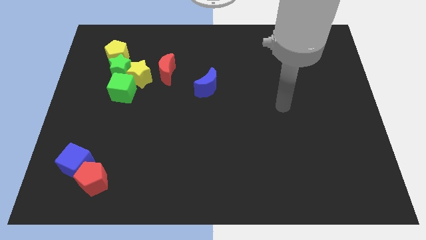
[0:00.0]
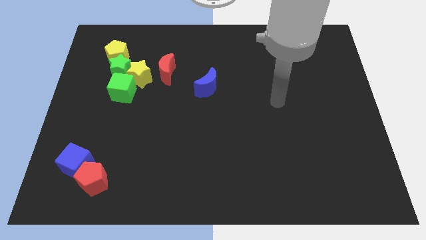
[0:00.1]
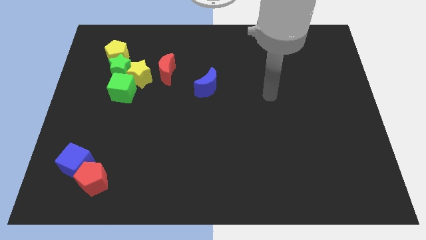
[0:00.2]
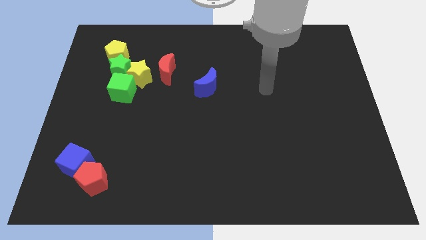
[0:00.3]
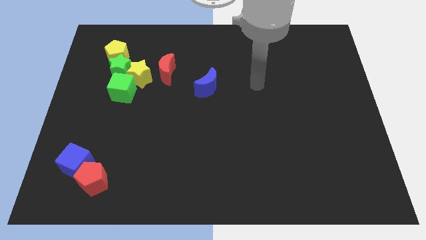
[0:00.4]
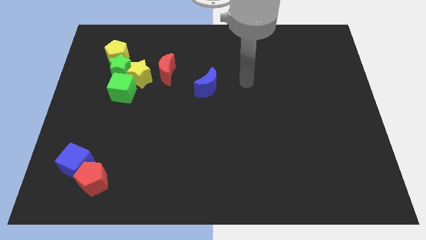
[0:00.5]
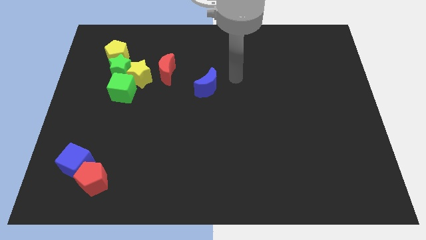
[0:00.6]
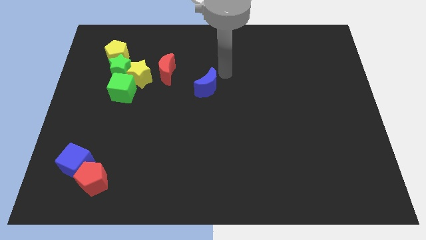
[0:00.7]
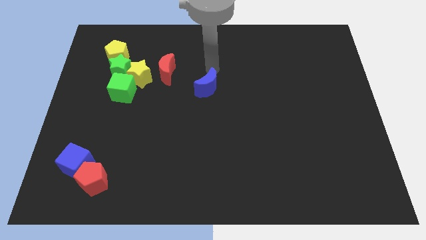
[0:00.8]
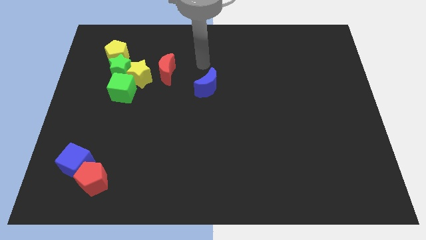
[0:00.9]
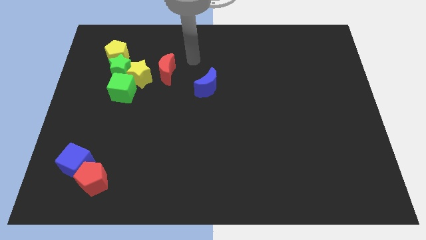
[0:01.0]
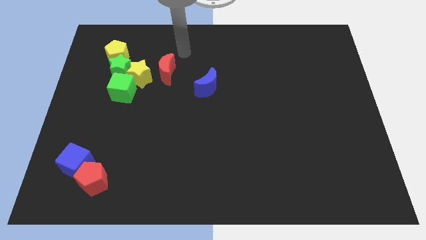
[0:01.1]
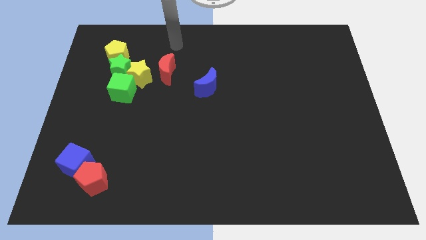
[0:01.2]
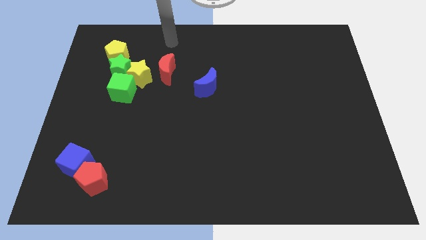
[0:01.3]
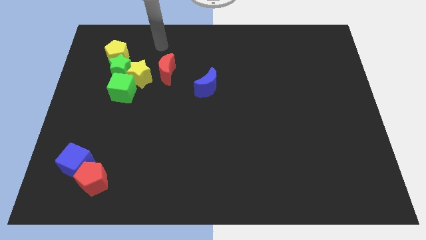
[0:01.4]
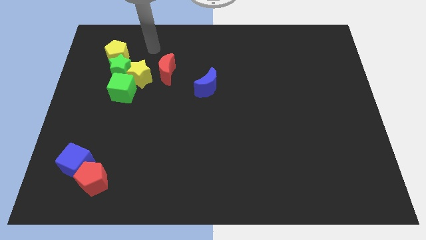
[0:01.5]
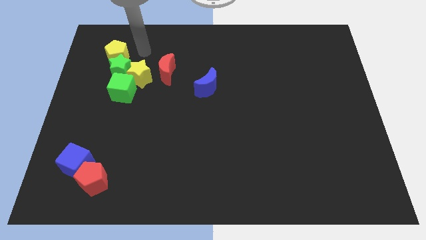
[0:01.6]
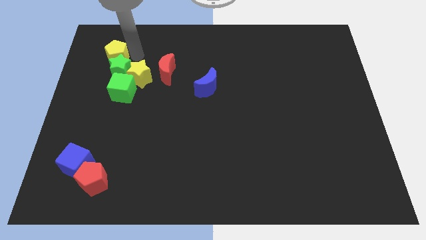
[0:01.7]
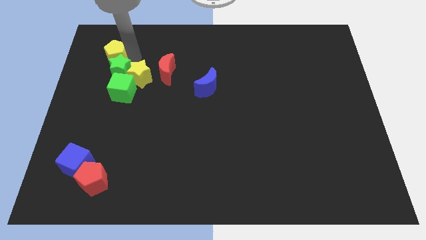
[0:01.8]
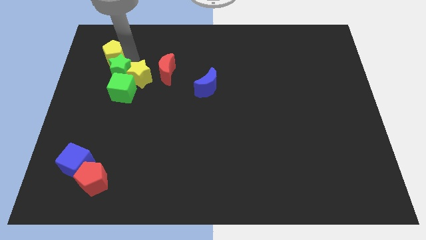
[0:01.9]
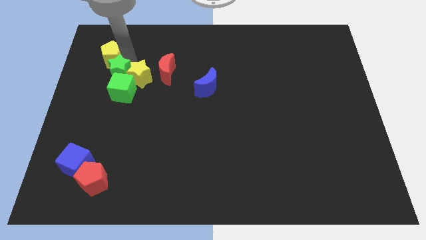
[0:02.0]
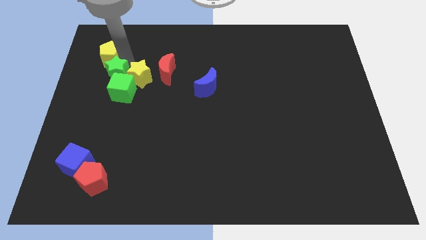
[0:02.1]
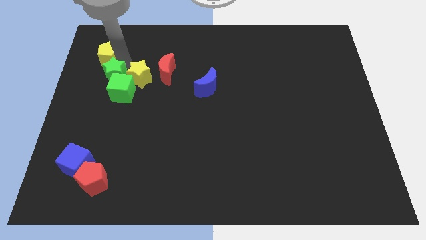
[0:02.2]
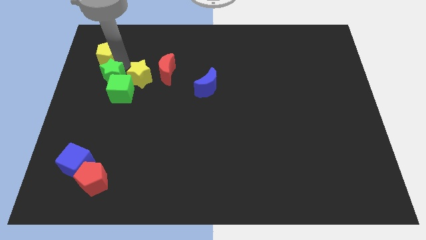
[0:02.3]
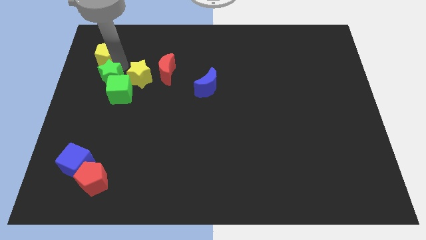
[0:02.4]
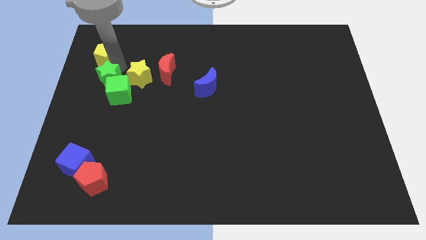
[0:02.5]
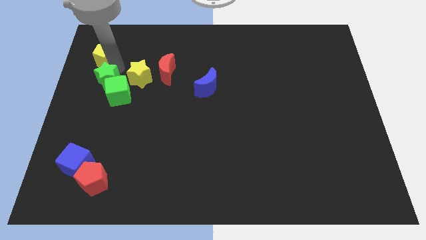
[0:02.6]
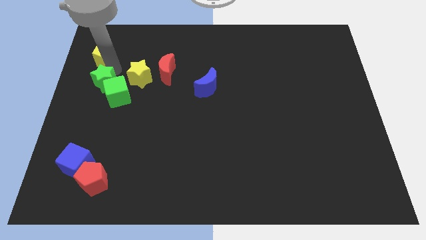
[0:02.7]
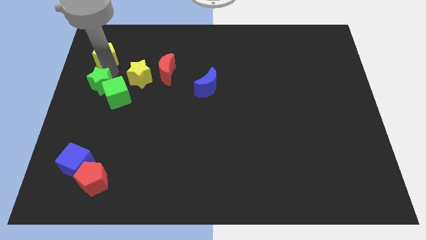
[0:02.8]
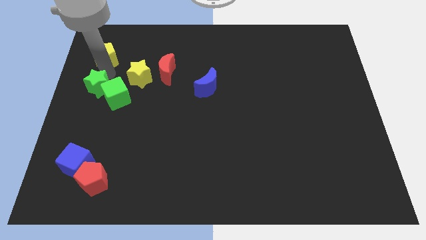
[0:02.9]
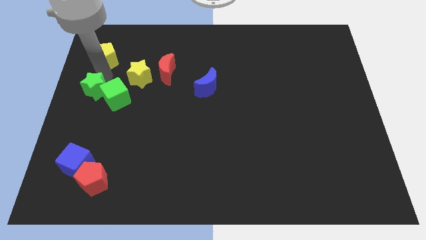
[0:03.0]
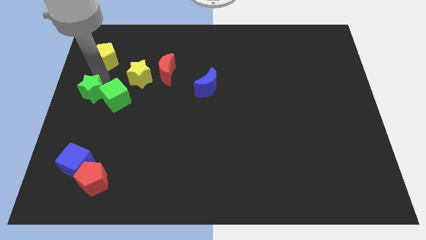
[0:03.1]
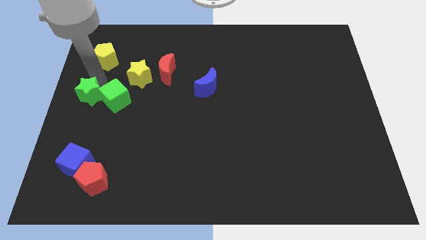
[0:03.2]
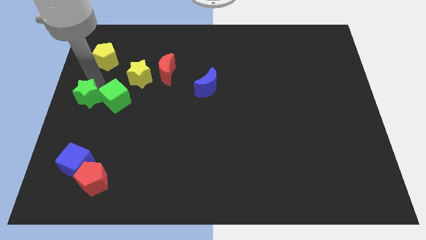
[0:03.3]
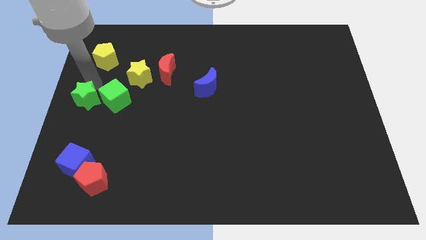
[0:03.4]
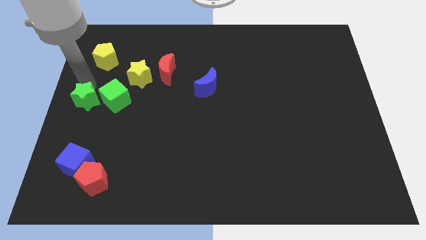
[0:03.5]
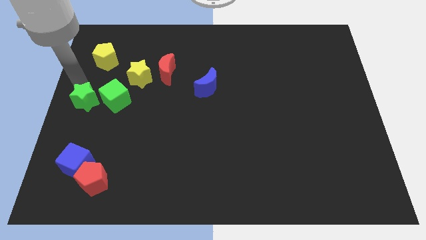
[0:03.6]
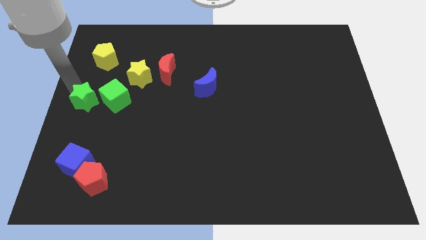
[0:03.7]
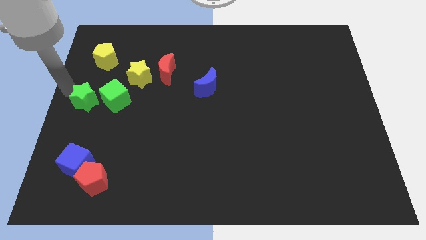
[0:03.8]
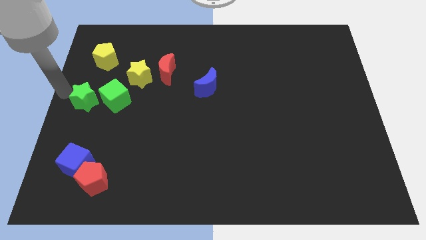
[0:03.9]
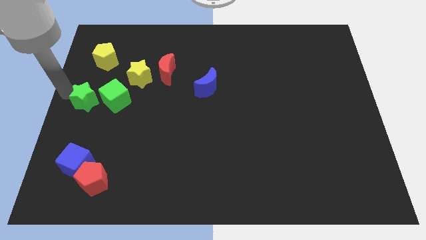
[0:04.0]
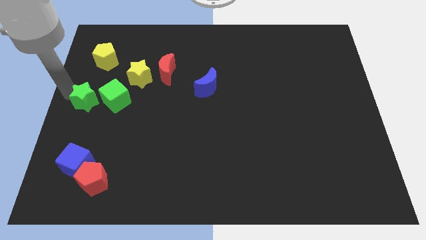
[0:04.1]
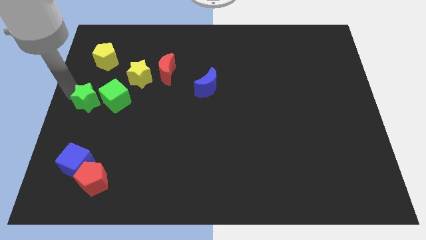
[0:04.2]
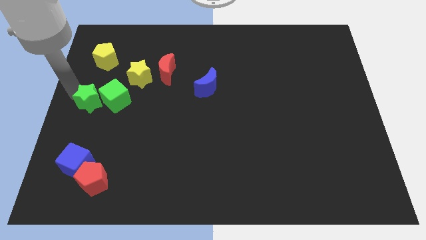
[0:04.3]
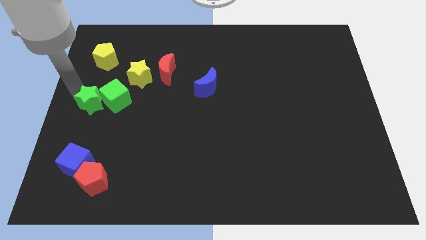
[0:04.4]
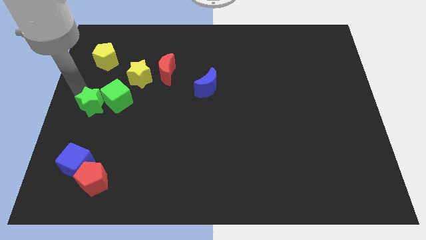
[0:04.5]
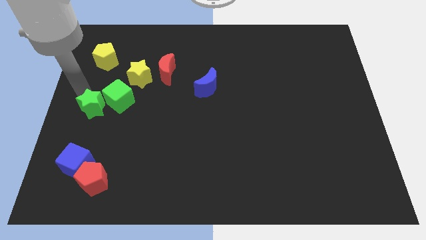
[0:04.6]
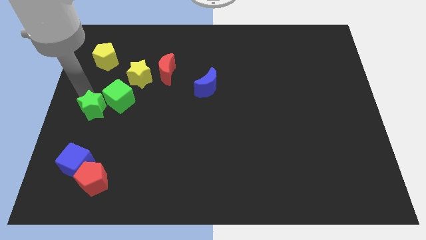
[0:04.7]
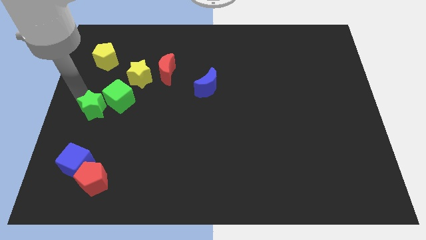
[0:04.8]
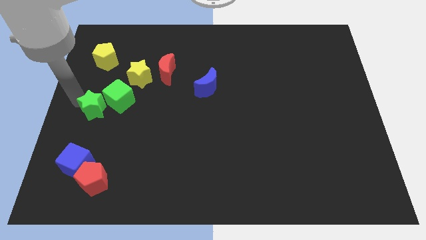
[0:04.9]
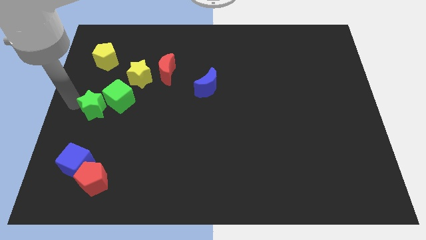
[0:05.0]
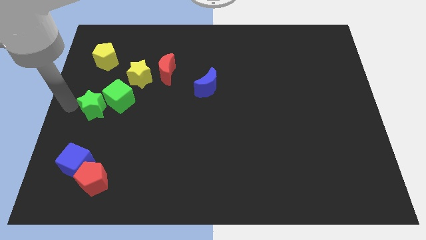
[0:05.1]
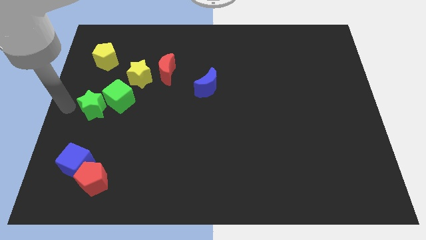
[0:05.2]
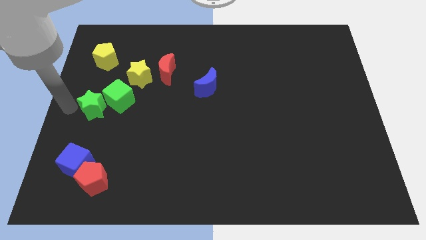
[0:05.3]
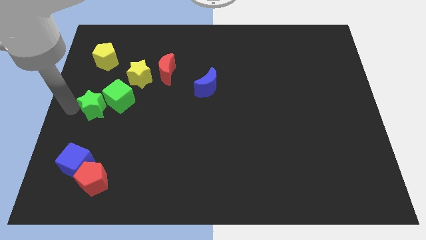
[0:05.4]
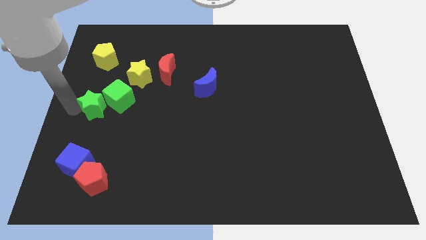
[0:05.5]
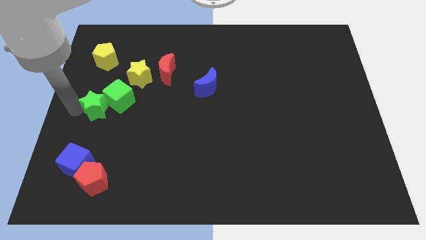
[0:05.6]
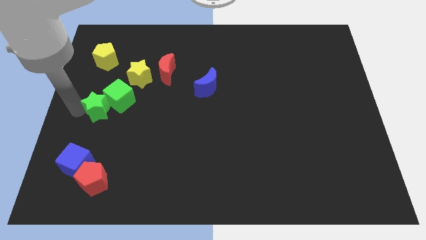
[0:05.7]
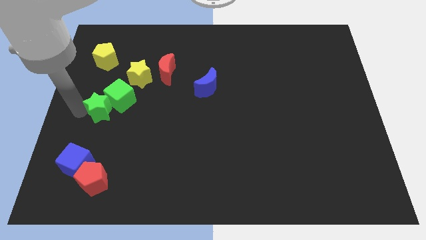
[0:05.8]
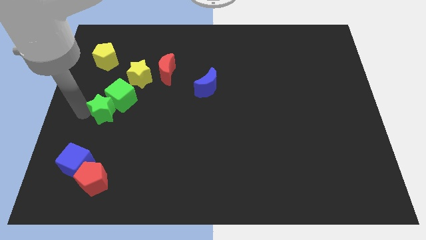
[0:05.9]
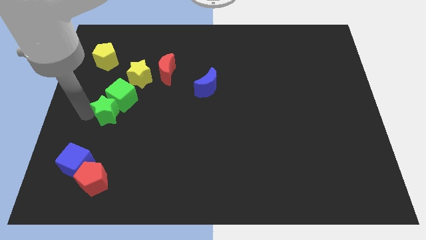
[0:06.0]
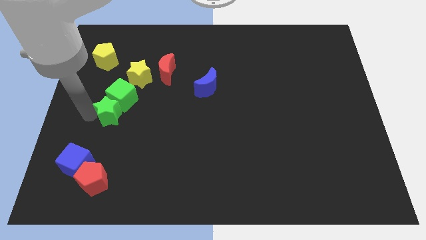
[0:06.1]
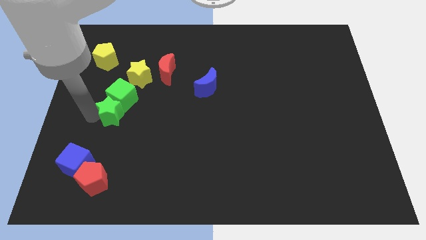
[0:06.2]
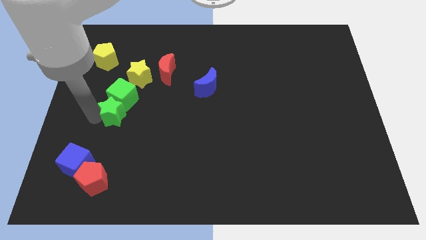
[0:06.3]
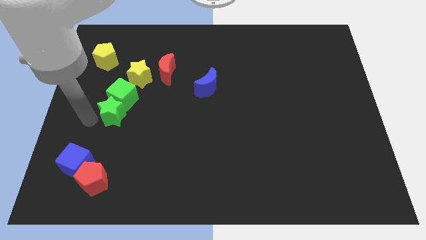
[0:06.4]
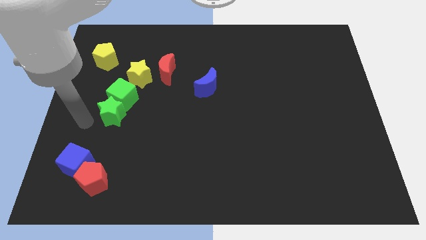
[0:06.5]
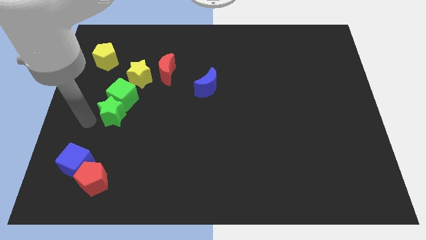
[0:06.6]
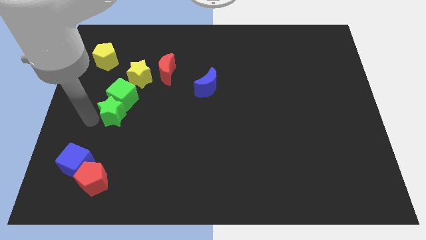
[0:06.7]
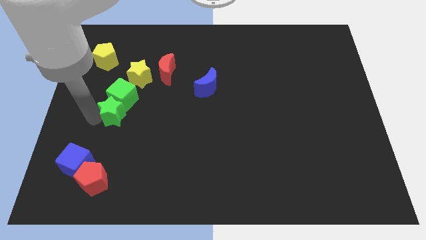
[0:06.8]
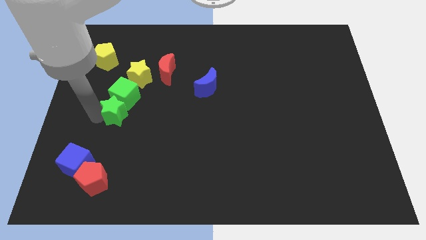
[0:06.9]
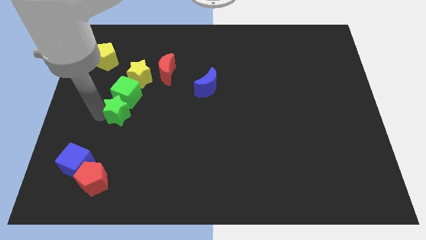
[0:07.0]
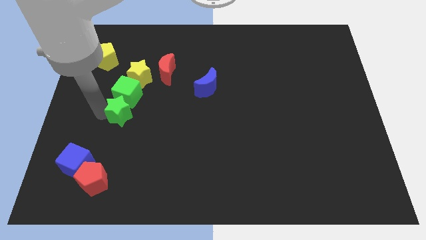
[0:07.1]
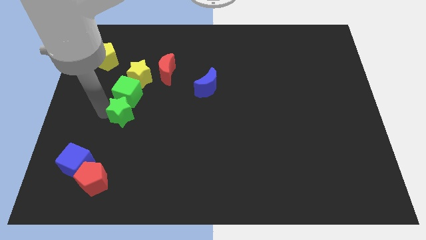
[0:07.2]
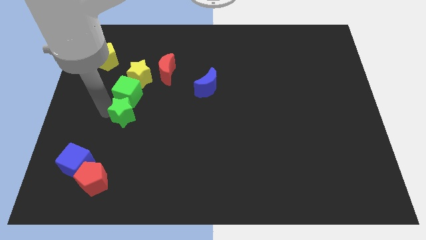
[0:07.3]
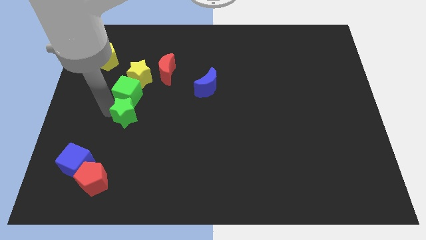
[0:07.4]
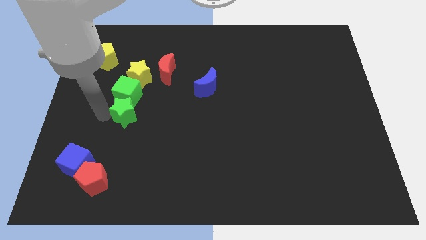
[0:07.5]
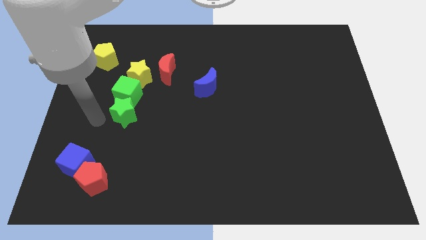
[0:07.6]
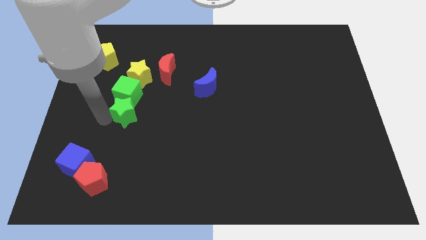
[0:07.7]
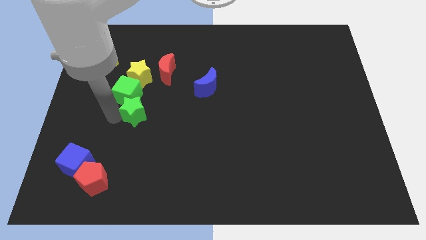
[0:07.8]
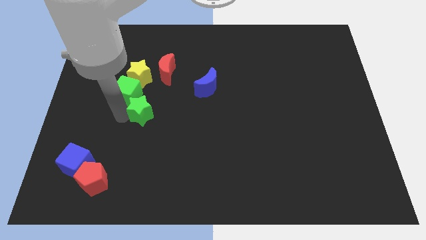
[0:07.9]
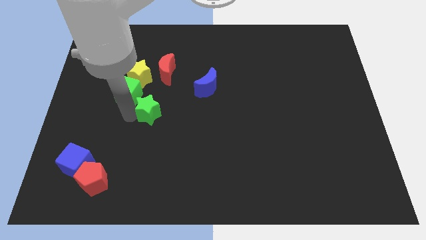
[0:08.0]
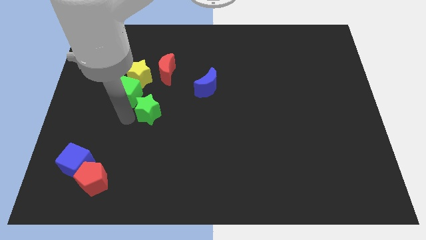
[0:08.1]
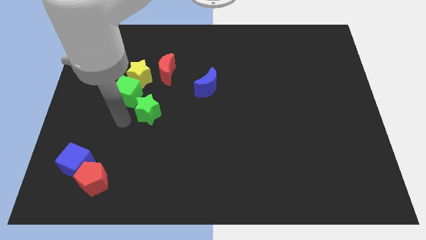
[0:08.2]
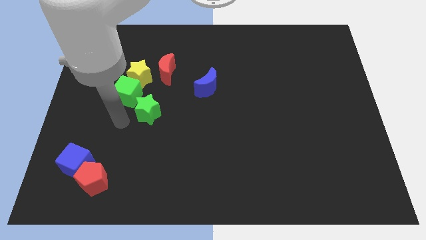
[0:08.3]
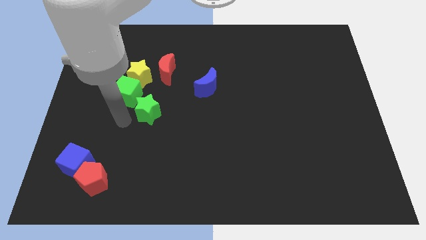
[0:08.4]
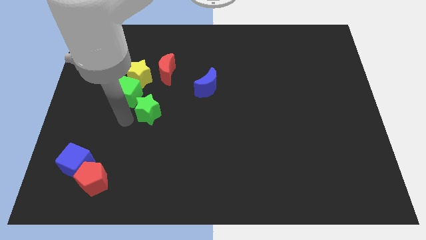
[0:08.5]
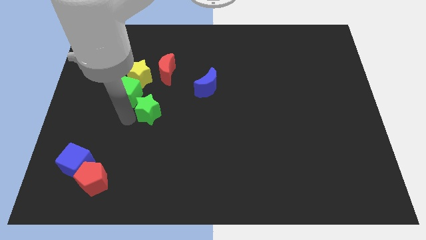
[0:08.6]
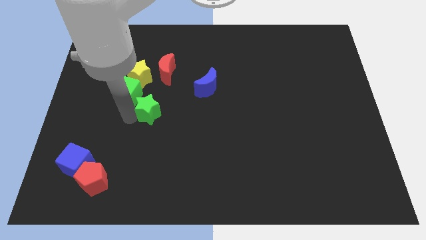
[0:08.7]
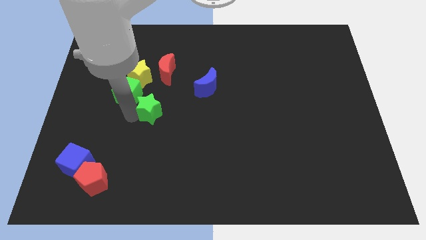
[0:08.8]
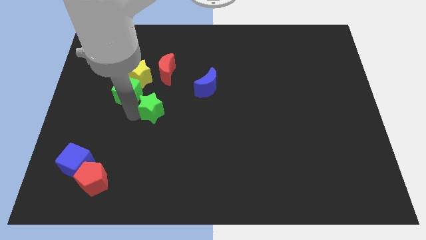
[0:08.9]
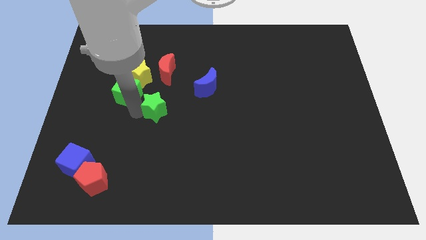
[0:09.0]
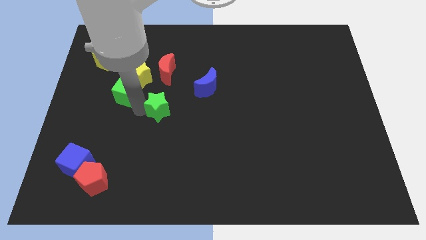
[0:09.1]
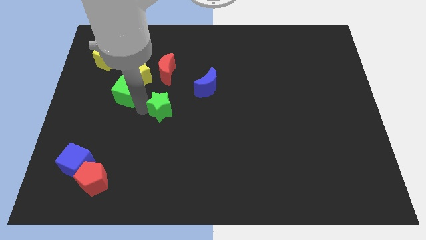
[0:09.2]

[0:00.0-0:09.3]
move the green star to the center of the board
